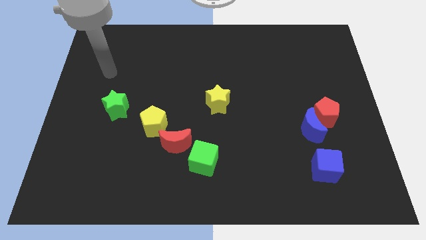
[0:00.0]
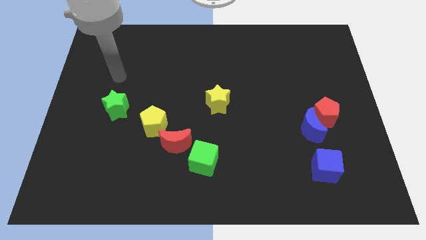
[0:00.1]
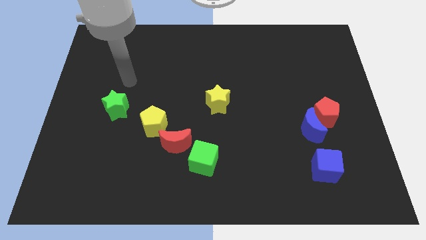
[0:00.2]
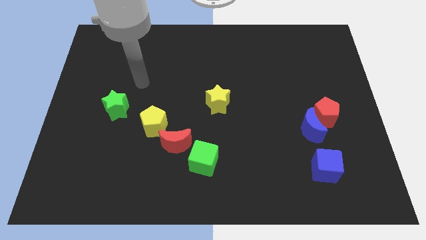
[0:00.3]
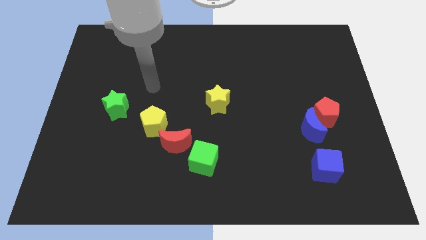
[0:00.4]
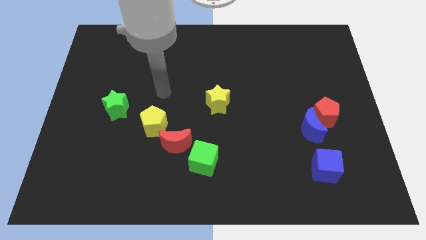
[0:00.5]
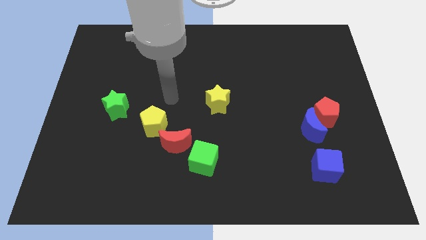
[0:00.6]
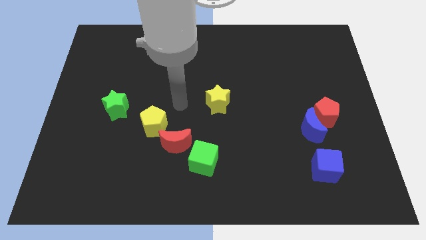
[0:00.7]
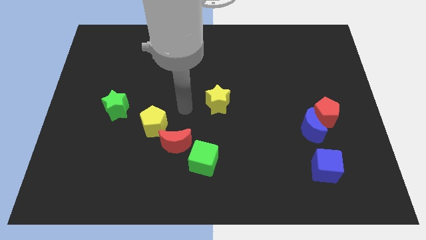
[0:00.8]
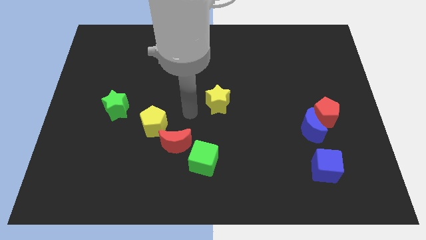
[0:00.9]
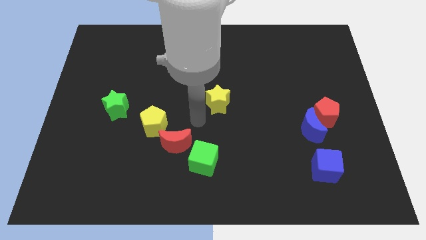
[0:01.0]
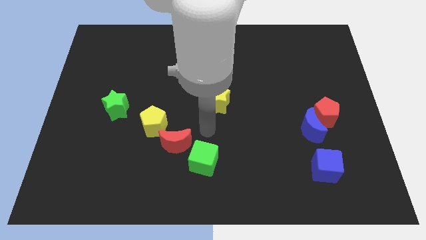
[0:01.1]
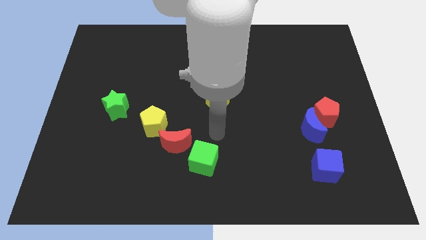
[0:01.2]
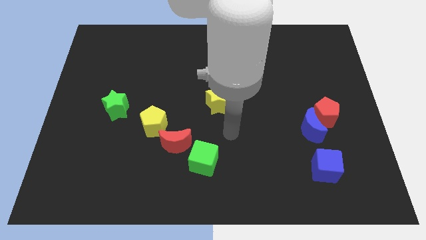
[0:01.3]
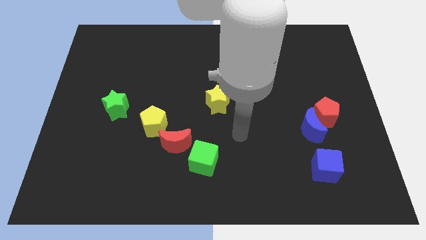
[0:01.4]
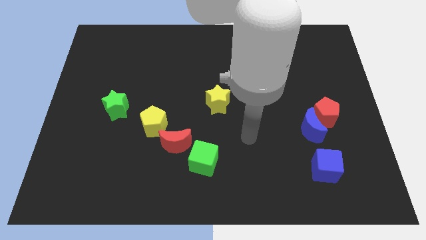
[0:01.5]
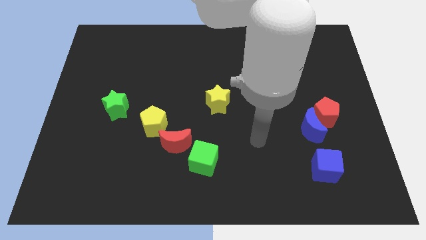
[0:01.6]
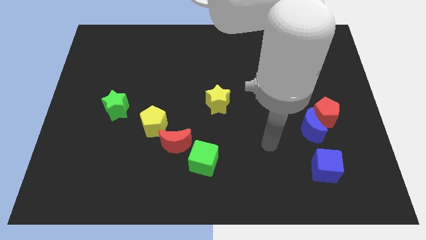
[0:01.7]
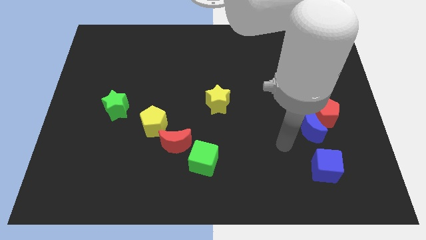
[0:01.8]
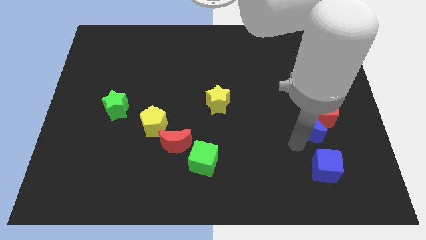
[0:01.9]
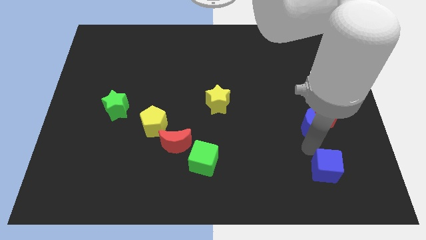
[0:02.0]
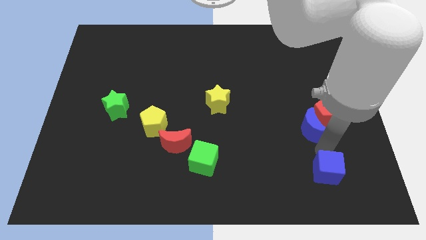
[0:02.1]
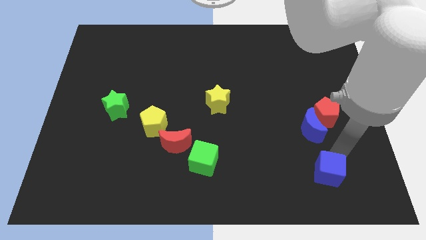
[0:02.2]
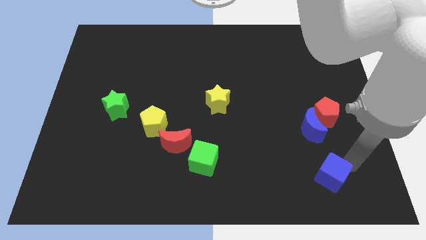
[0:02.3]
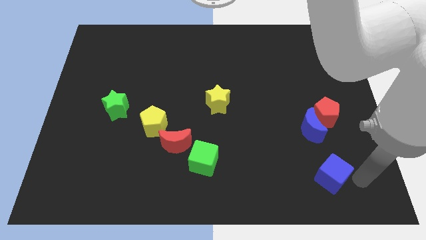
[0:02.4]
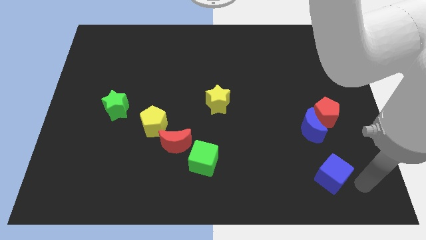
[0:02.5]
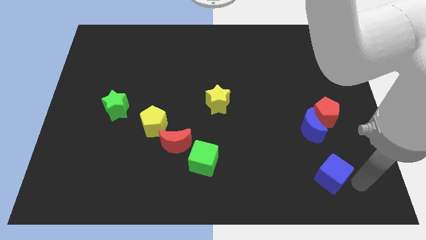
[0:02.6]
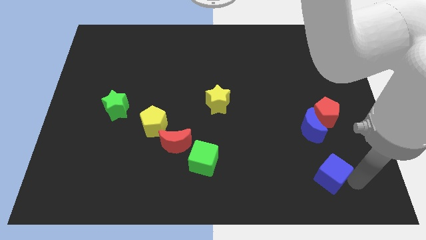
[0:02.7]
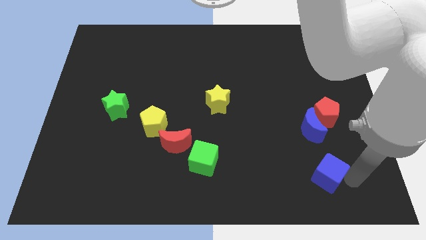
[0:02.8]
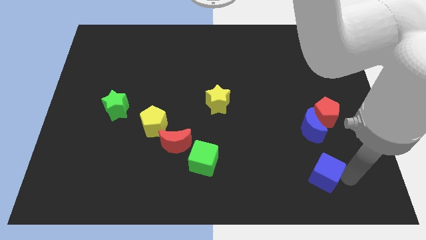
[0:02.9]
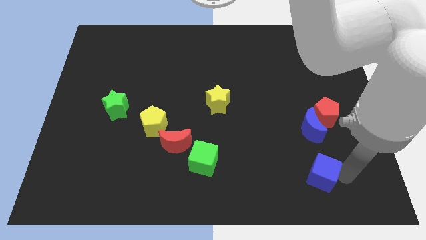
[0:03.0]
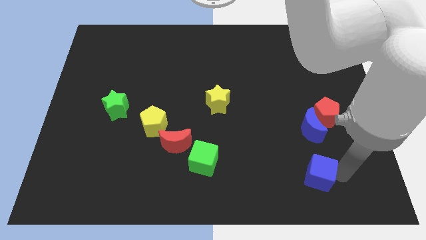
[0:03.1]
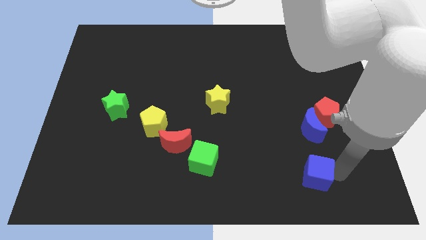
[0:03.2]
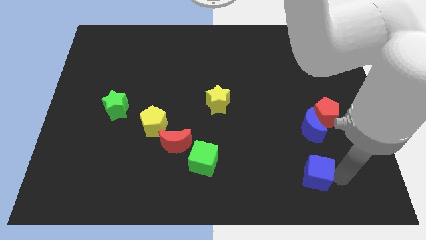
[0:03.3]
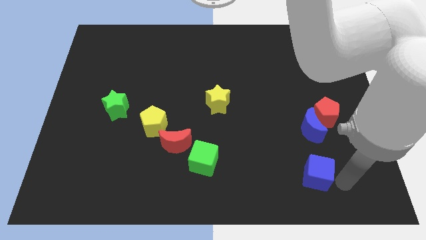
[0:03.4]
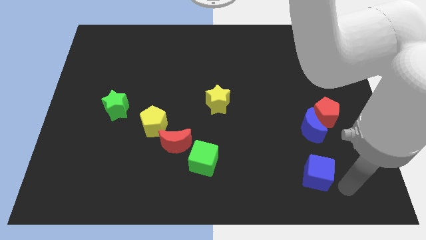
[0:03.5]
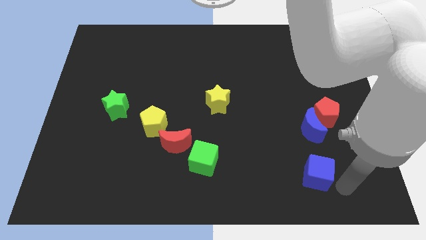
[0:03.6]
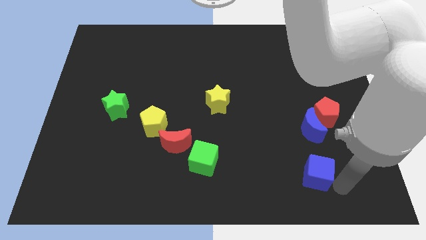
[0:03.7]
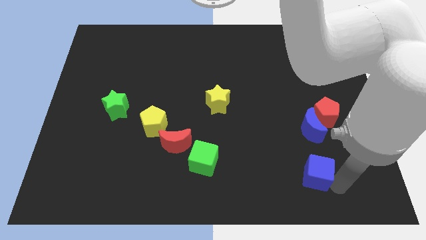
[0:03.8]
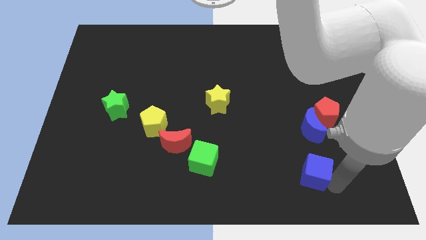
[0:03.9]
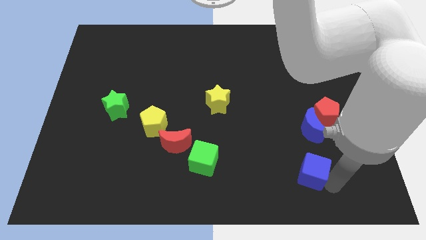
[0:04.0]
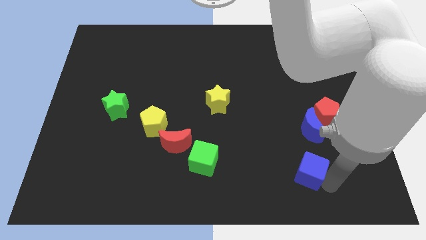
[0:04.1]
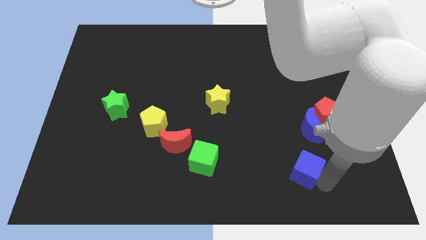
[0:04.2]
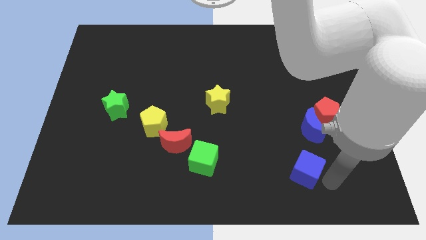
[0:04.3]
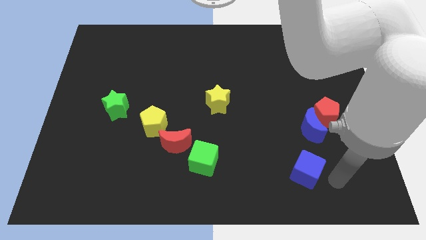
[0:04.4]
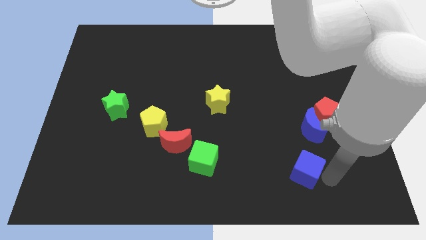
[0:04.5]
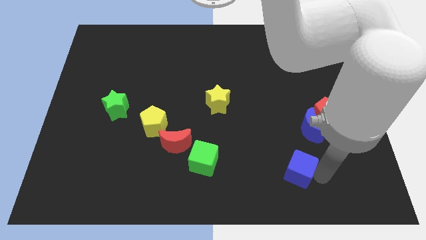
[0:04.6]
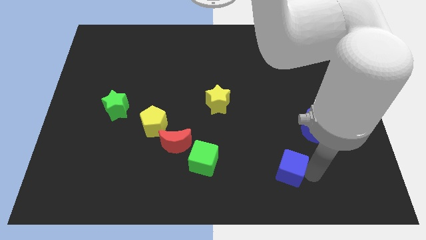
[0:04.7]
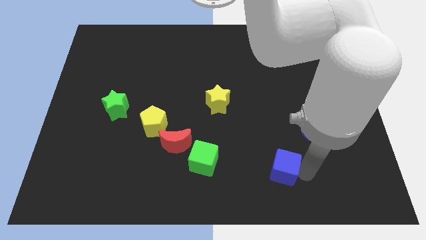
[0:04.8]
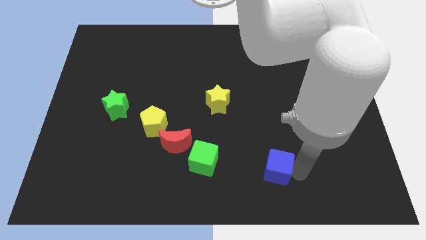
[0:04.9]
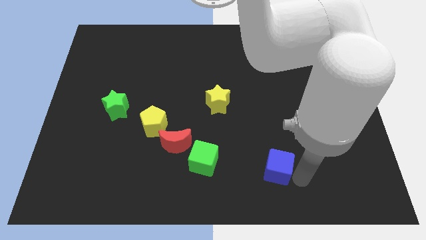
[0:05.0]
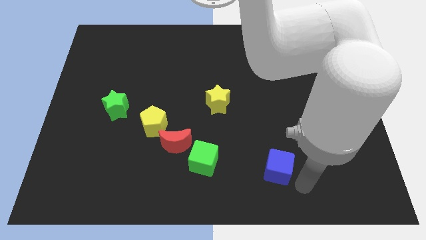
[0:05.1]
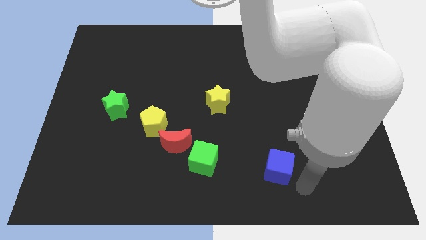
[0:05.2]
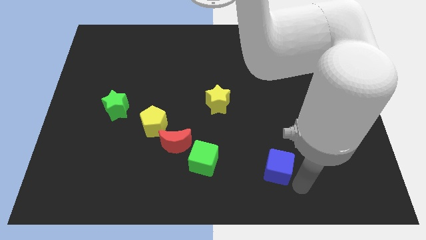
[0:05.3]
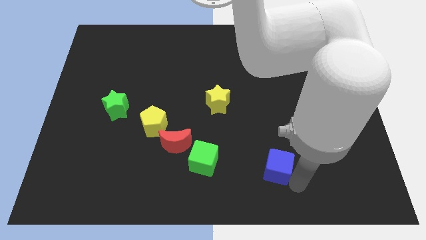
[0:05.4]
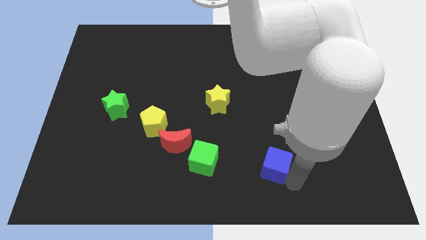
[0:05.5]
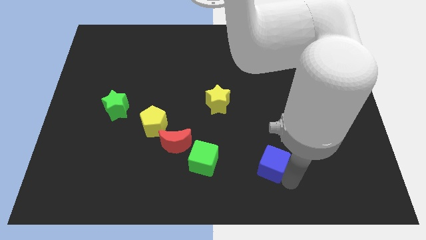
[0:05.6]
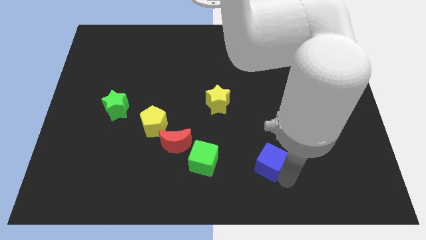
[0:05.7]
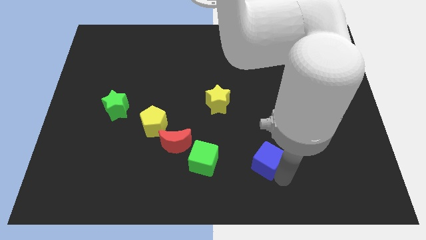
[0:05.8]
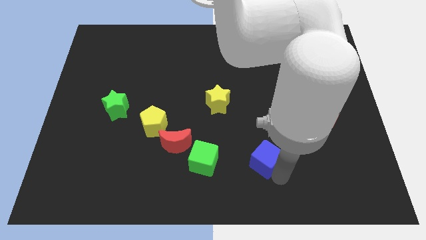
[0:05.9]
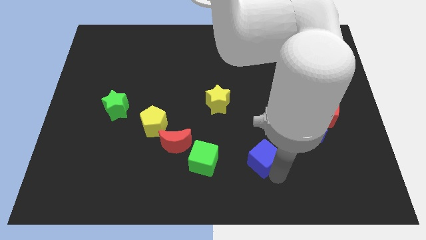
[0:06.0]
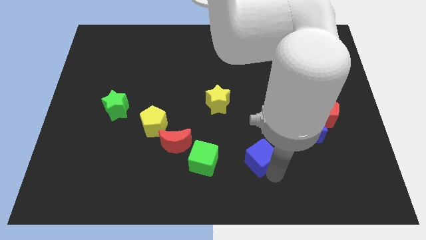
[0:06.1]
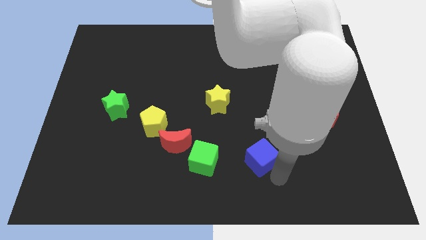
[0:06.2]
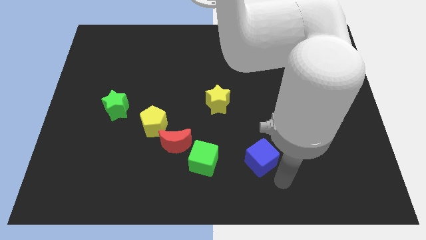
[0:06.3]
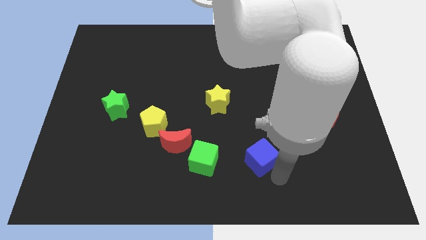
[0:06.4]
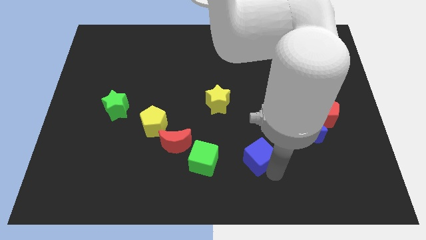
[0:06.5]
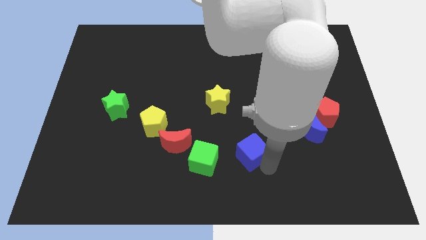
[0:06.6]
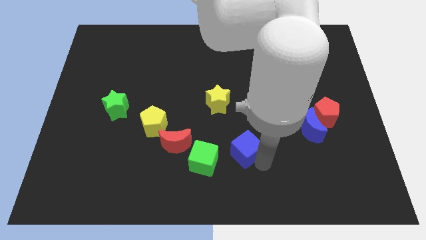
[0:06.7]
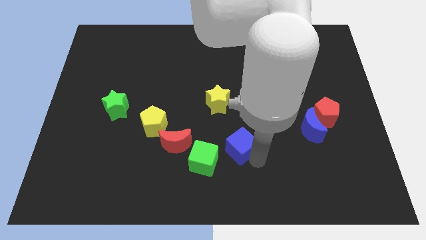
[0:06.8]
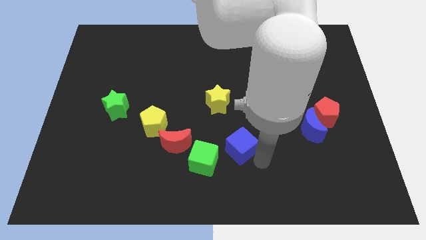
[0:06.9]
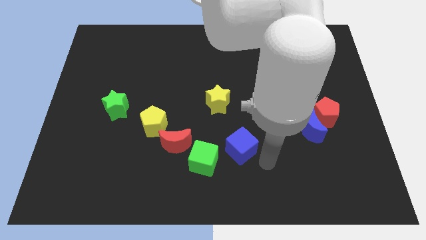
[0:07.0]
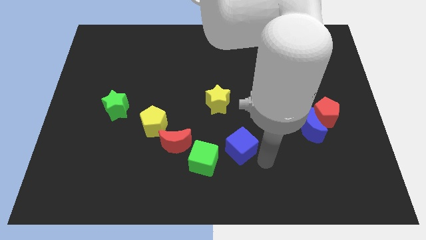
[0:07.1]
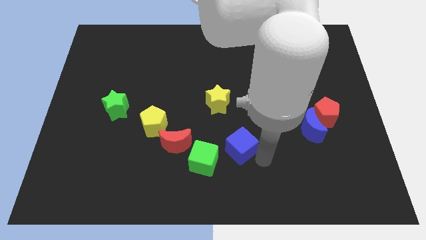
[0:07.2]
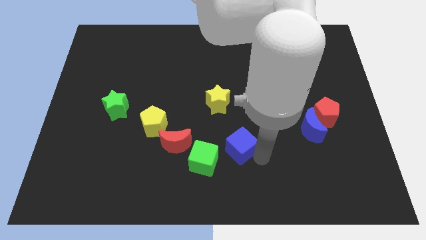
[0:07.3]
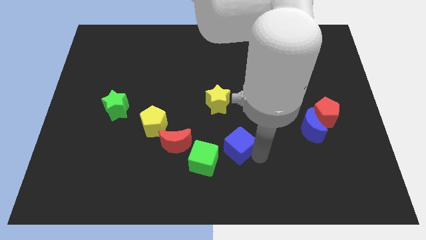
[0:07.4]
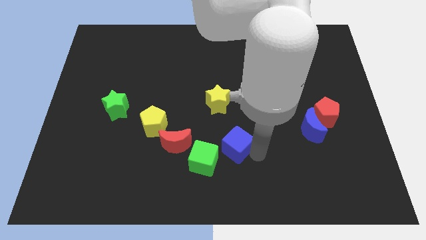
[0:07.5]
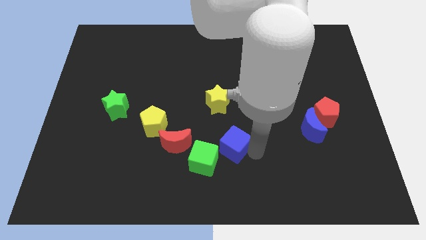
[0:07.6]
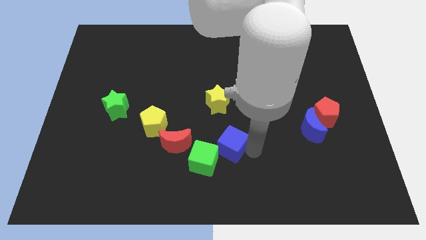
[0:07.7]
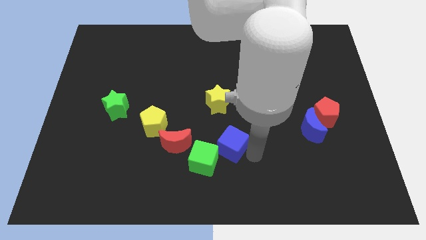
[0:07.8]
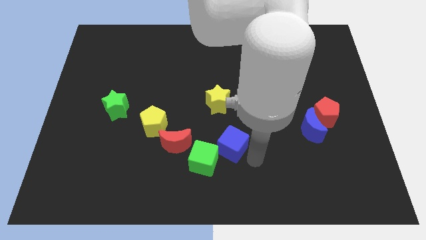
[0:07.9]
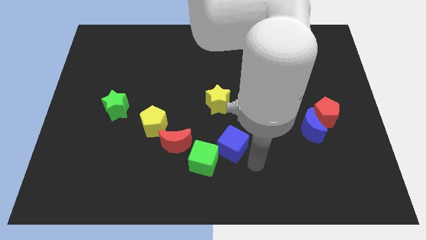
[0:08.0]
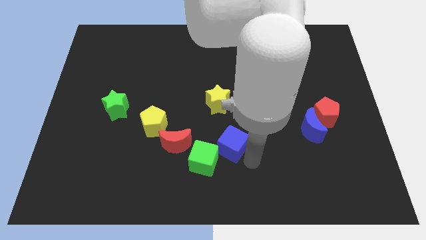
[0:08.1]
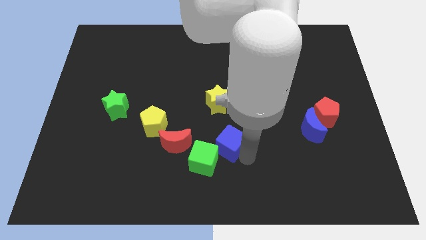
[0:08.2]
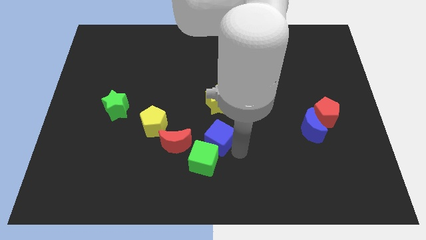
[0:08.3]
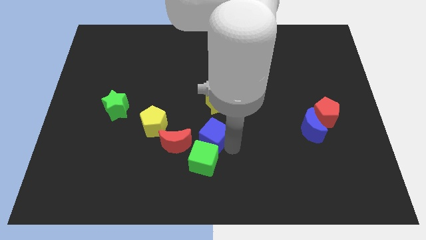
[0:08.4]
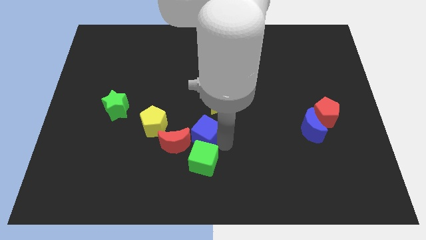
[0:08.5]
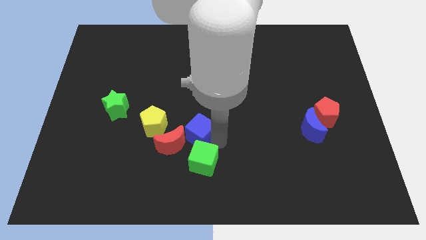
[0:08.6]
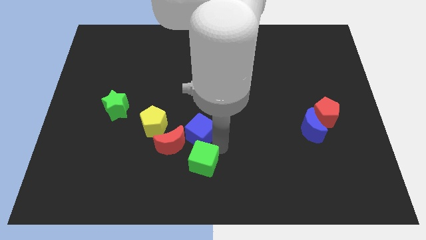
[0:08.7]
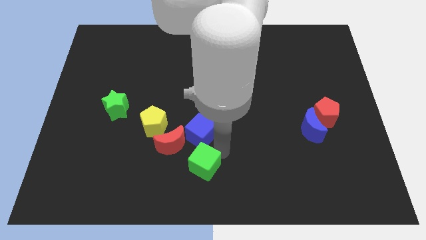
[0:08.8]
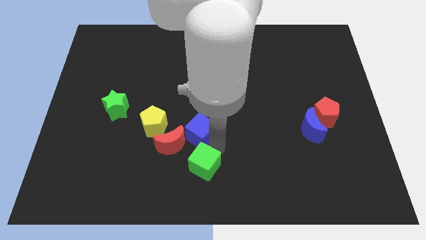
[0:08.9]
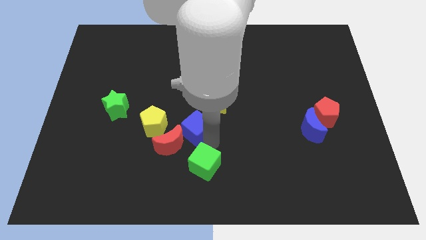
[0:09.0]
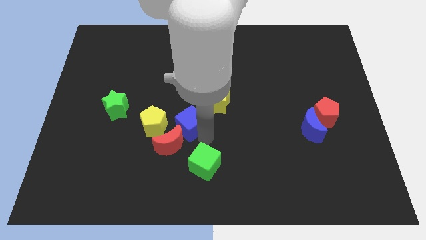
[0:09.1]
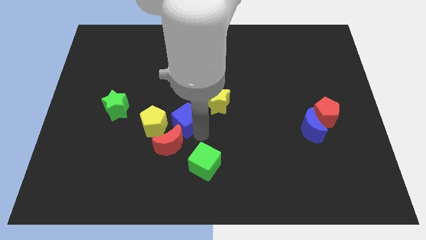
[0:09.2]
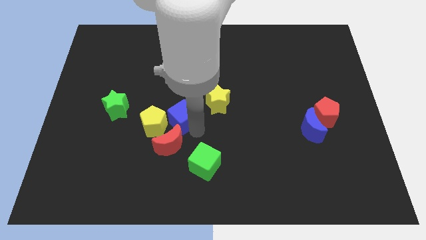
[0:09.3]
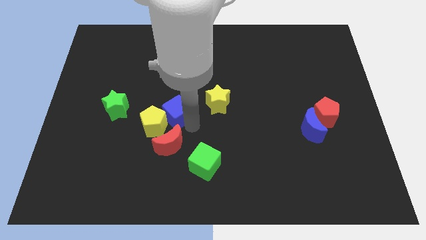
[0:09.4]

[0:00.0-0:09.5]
push the blue cube to the right of the green star
